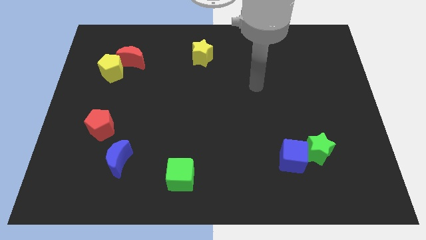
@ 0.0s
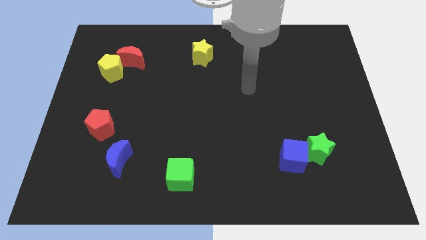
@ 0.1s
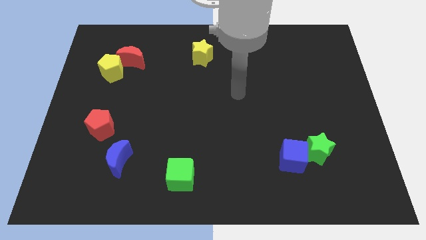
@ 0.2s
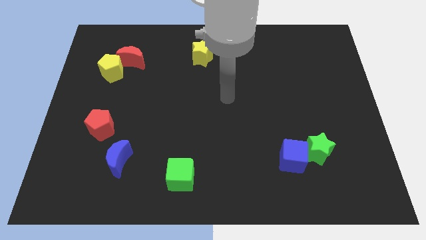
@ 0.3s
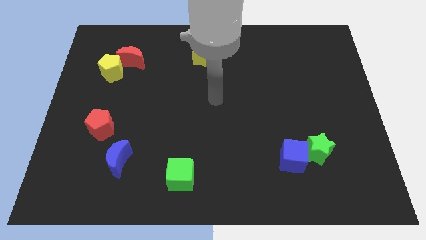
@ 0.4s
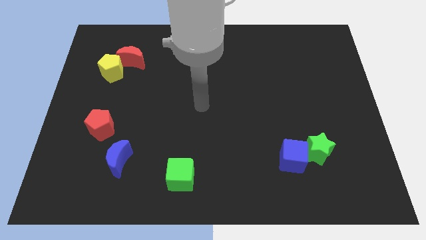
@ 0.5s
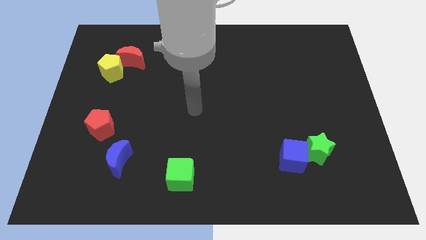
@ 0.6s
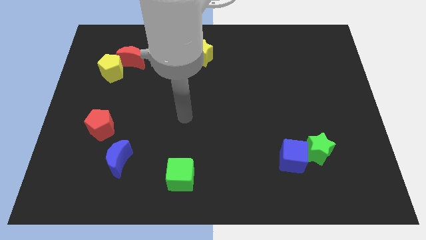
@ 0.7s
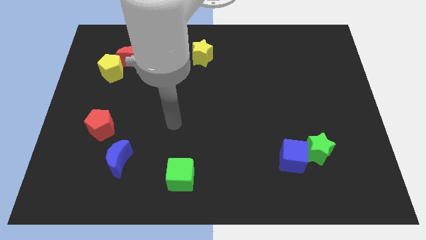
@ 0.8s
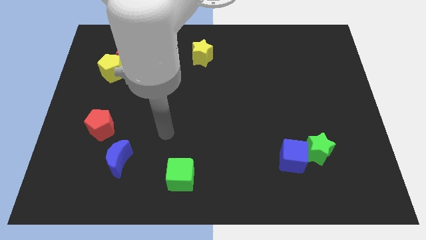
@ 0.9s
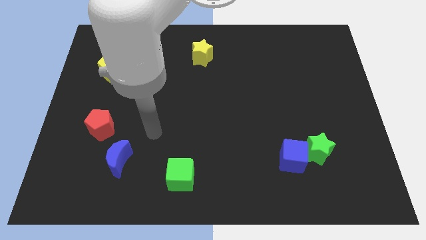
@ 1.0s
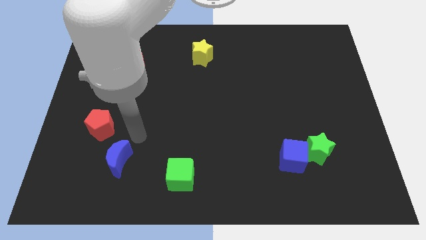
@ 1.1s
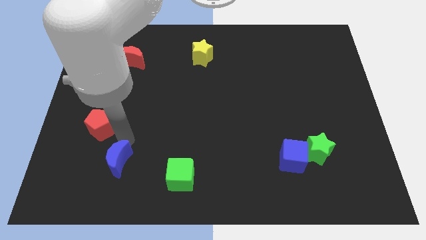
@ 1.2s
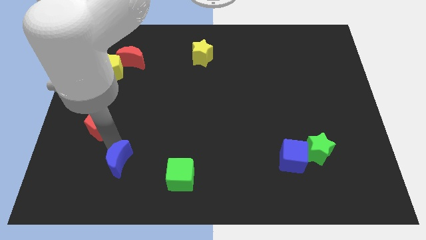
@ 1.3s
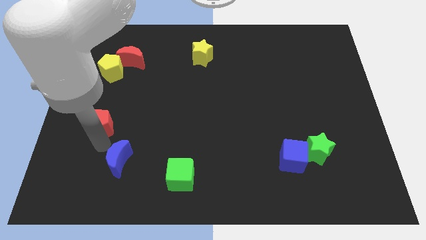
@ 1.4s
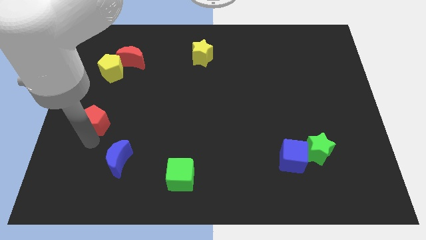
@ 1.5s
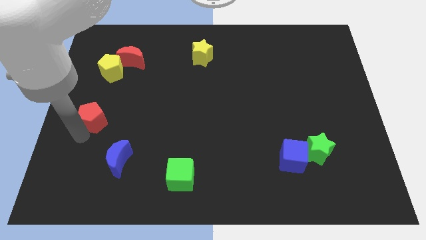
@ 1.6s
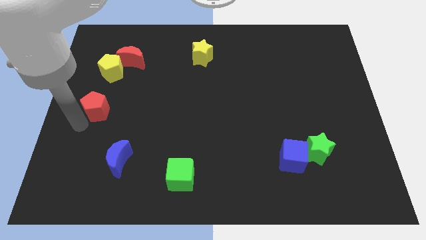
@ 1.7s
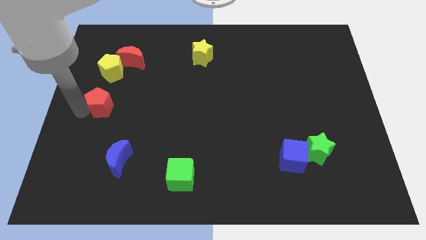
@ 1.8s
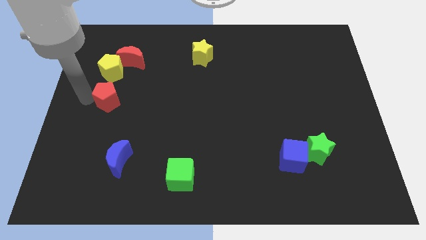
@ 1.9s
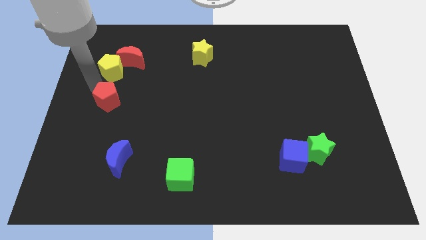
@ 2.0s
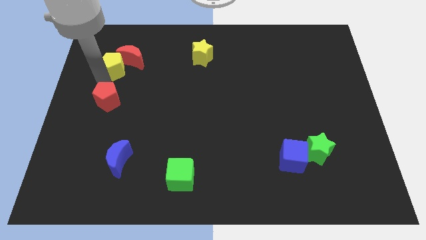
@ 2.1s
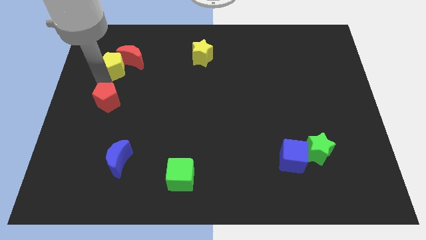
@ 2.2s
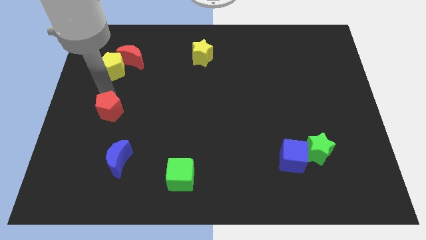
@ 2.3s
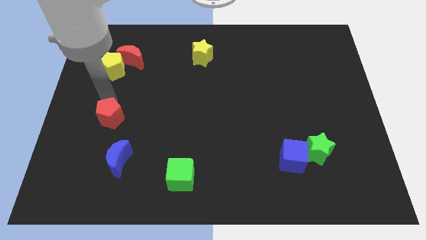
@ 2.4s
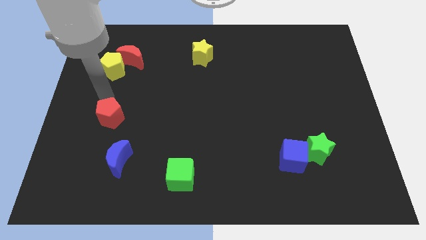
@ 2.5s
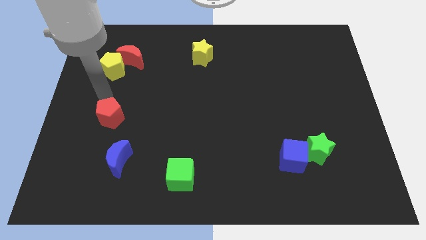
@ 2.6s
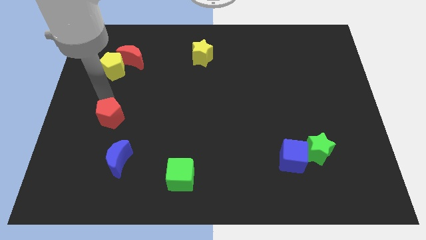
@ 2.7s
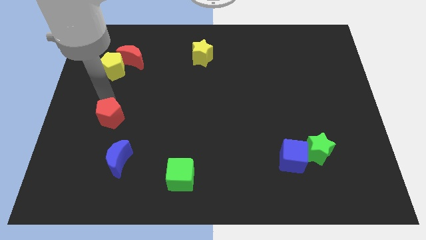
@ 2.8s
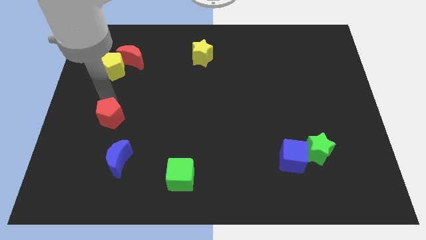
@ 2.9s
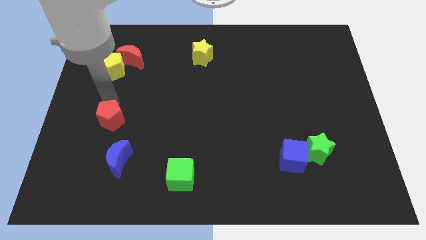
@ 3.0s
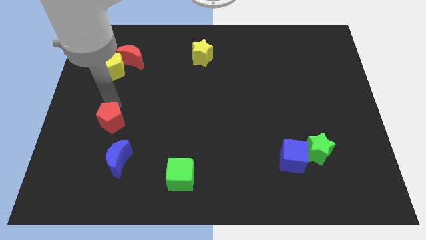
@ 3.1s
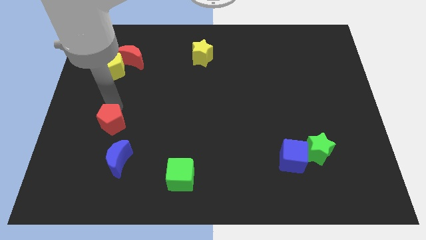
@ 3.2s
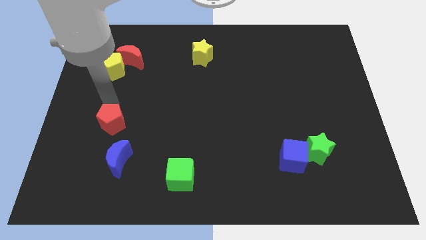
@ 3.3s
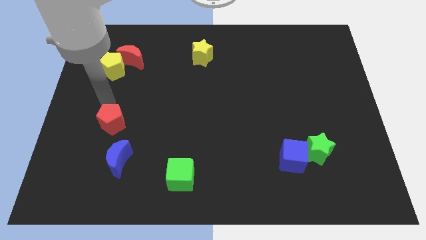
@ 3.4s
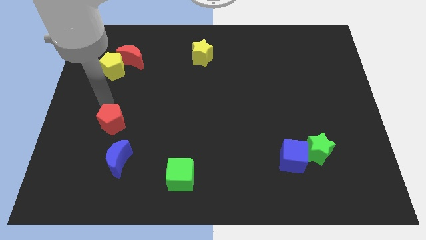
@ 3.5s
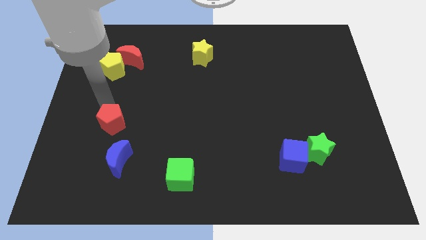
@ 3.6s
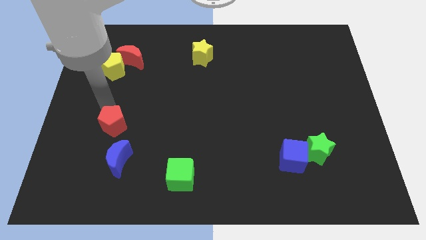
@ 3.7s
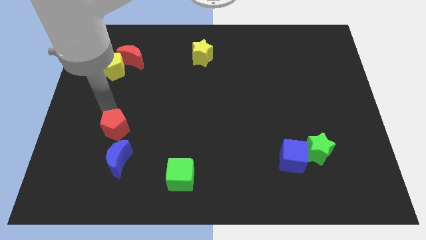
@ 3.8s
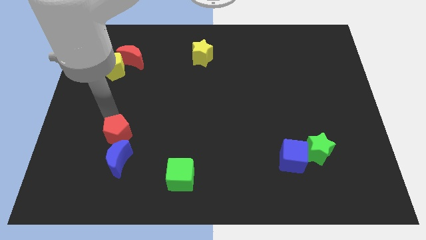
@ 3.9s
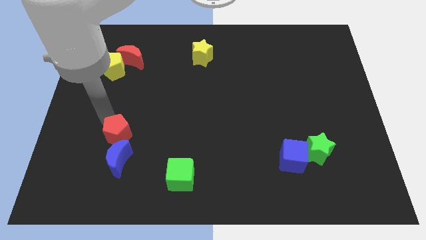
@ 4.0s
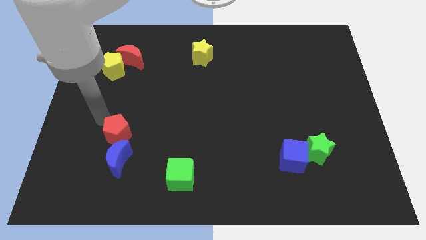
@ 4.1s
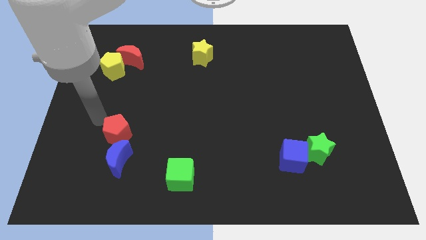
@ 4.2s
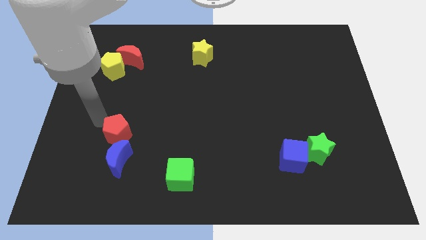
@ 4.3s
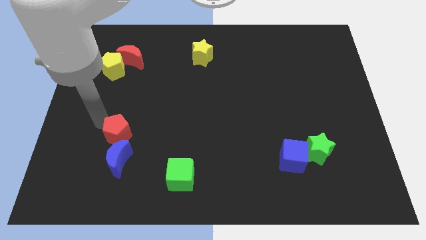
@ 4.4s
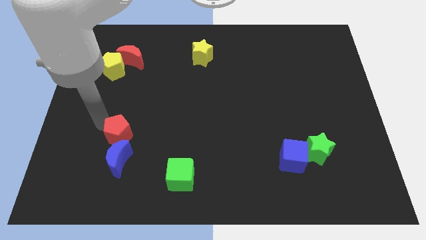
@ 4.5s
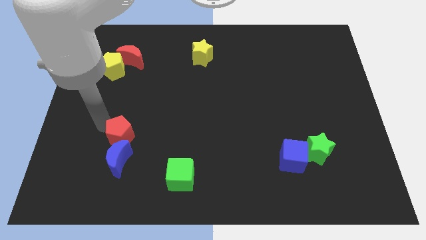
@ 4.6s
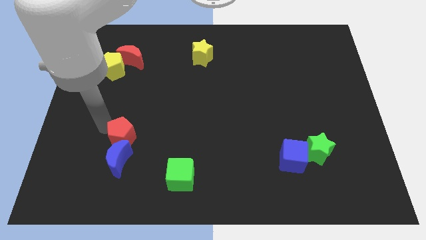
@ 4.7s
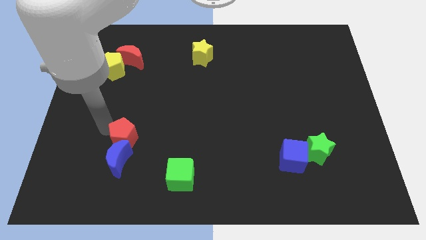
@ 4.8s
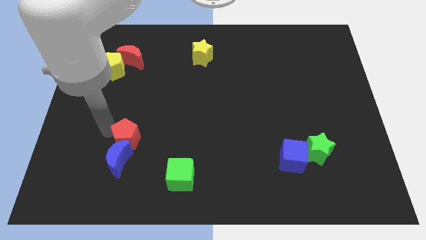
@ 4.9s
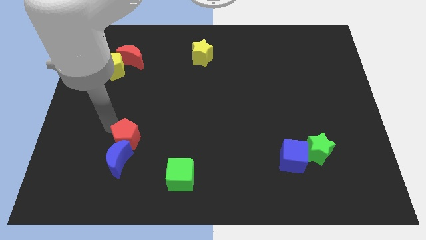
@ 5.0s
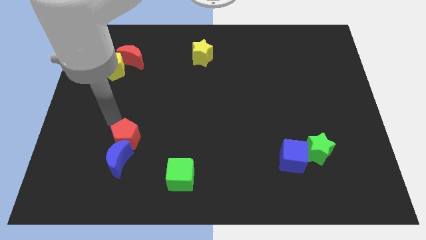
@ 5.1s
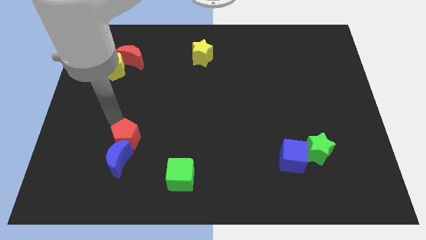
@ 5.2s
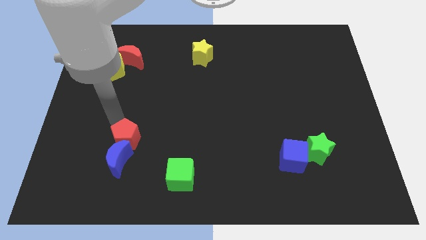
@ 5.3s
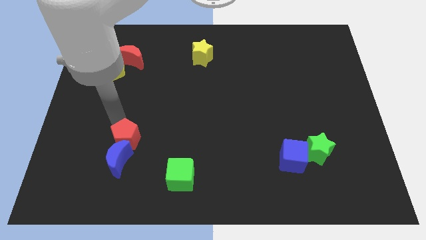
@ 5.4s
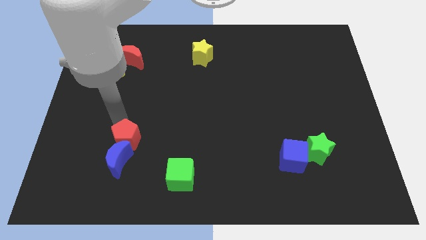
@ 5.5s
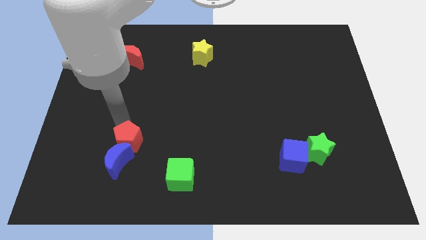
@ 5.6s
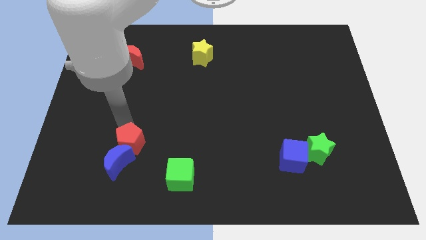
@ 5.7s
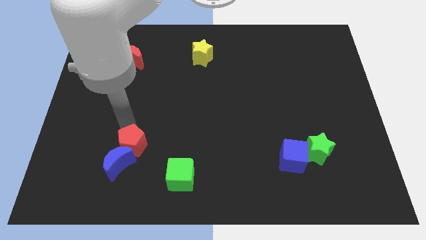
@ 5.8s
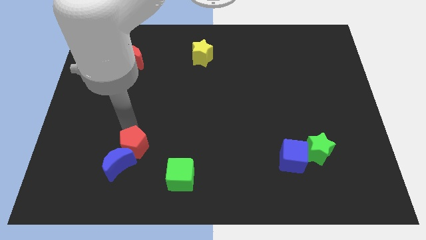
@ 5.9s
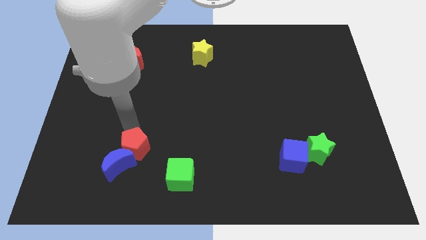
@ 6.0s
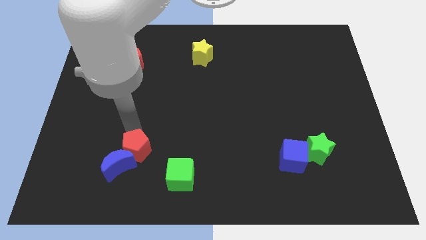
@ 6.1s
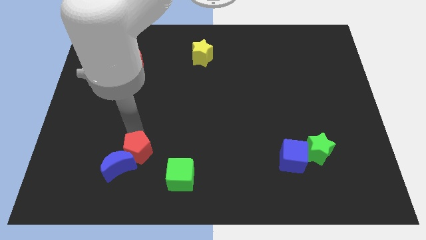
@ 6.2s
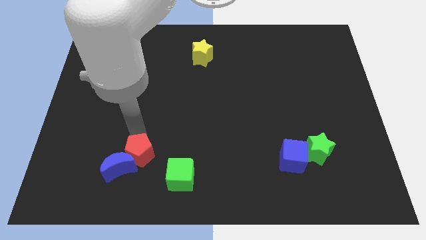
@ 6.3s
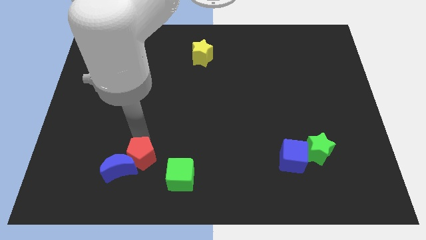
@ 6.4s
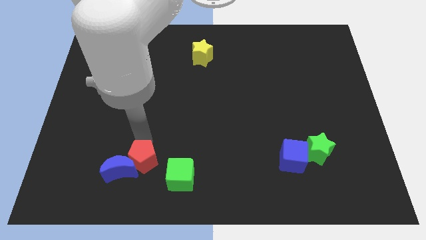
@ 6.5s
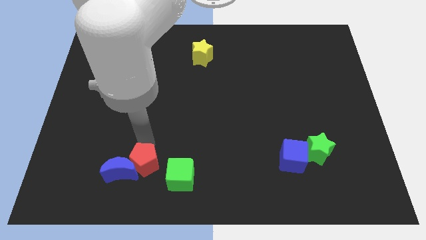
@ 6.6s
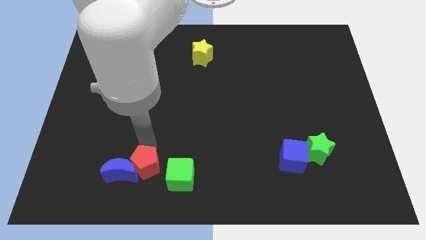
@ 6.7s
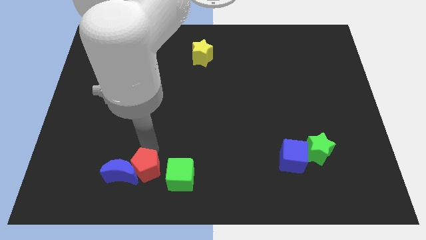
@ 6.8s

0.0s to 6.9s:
slide the red pentagon diagonally down and to the right of the blue moon

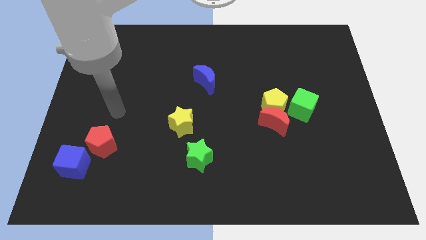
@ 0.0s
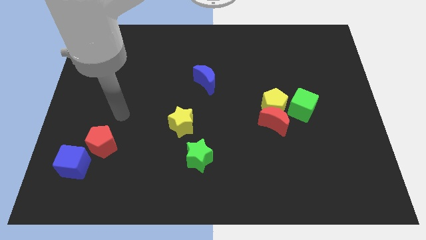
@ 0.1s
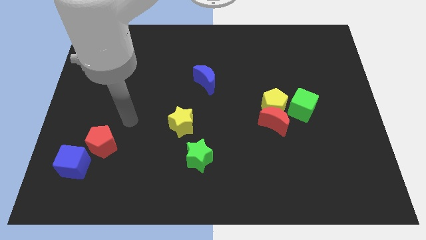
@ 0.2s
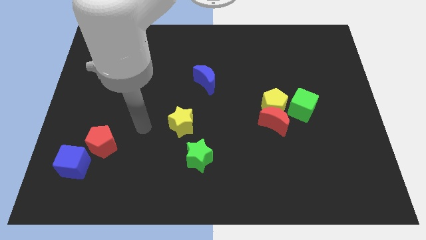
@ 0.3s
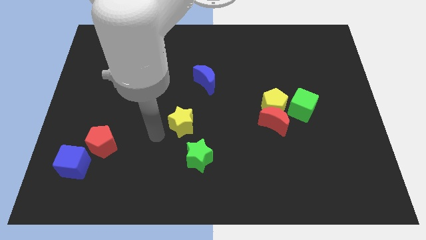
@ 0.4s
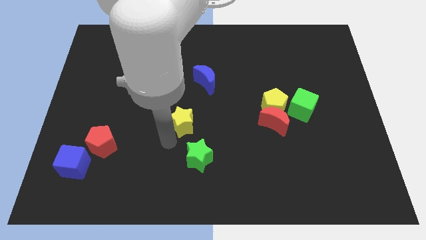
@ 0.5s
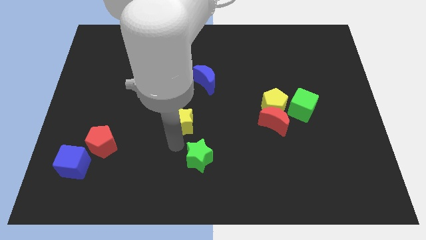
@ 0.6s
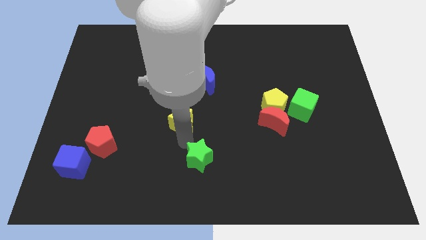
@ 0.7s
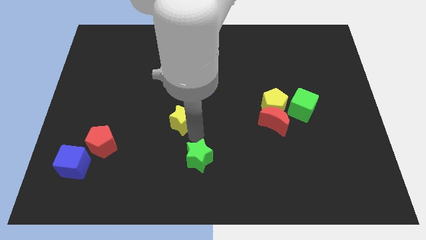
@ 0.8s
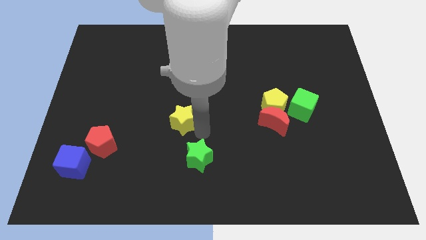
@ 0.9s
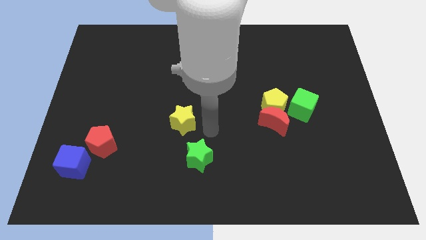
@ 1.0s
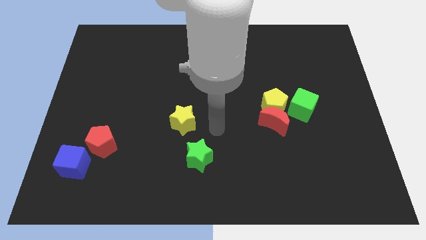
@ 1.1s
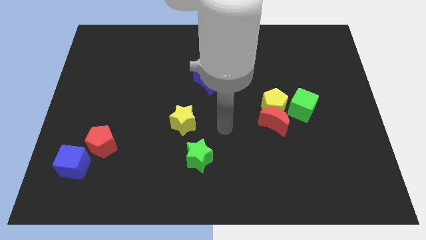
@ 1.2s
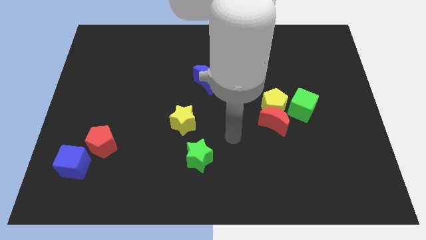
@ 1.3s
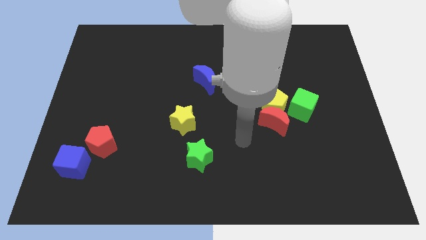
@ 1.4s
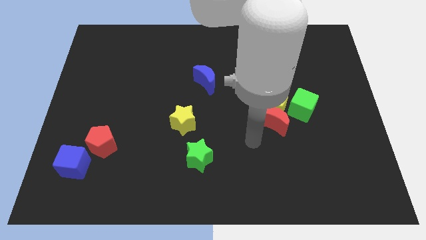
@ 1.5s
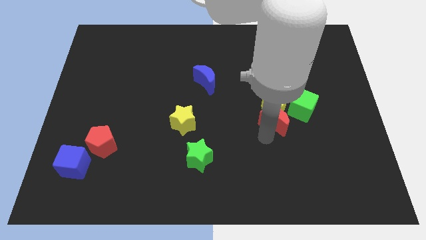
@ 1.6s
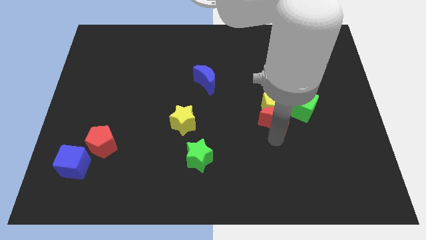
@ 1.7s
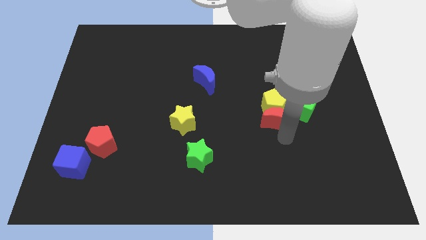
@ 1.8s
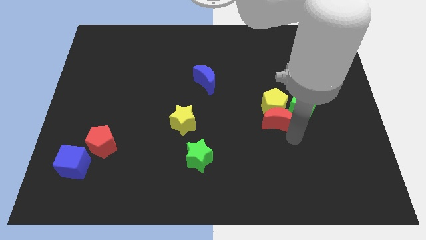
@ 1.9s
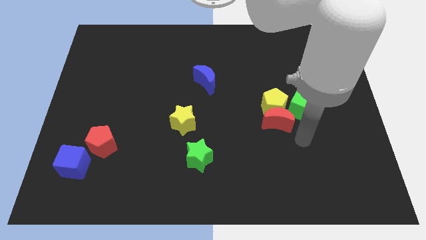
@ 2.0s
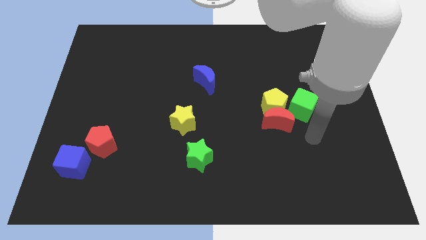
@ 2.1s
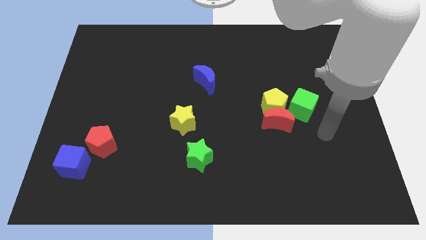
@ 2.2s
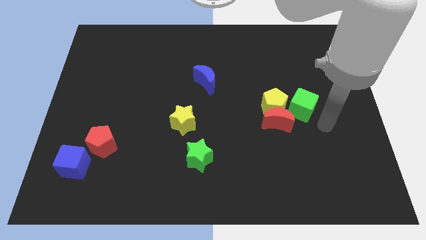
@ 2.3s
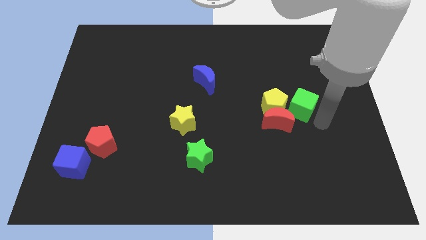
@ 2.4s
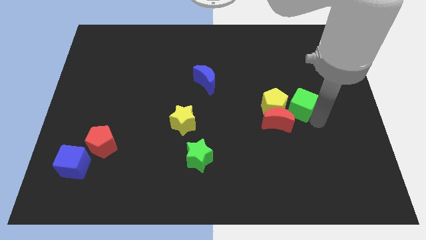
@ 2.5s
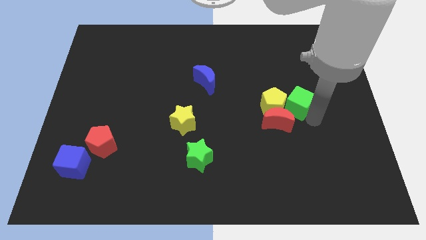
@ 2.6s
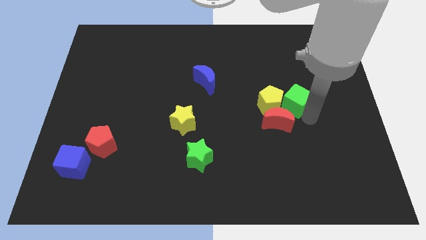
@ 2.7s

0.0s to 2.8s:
put the green cube above the red moon
